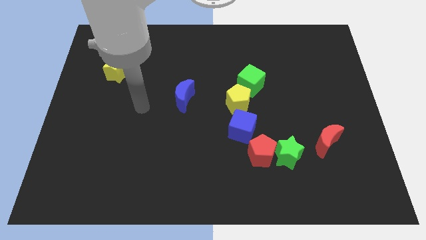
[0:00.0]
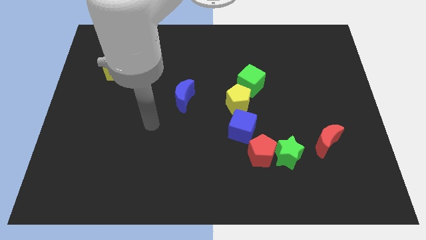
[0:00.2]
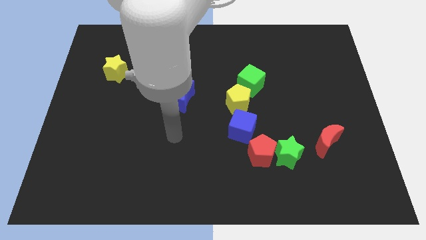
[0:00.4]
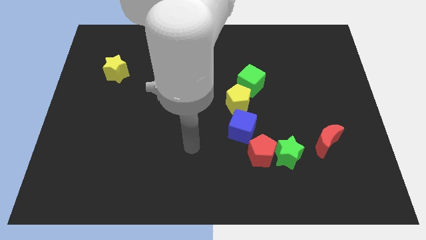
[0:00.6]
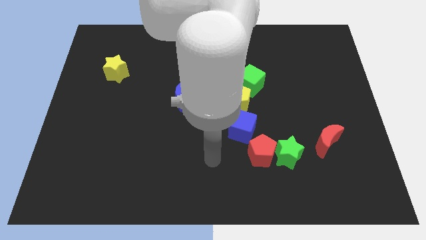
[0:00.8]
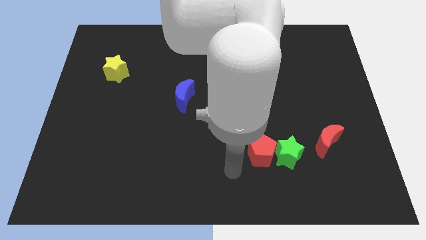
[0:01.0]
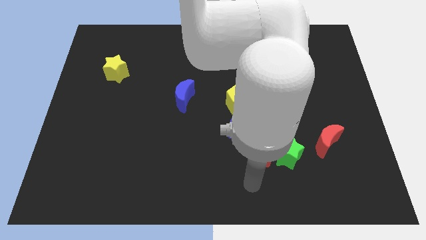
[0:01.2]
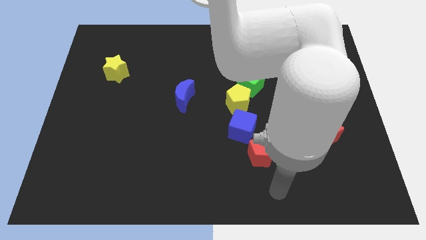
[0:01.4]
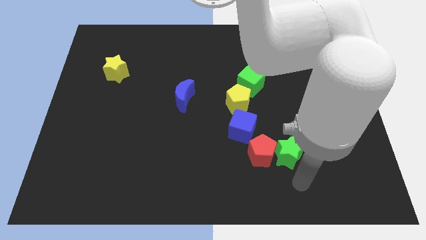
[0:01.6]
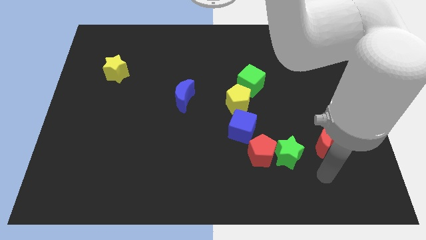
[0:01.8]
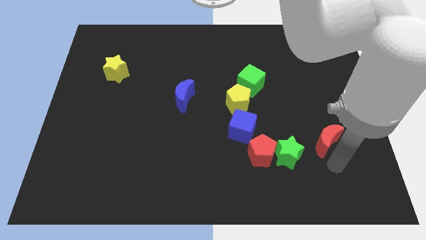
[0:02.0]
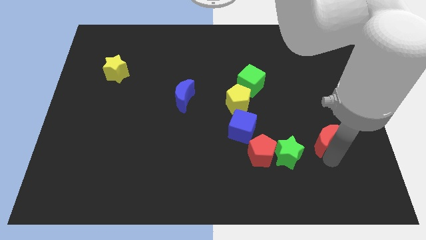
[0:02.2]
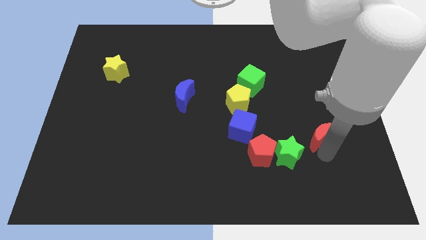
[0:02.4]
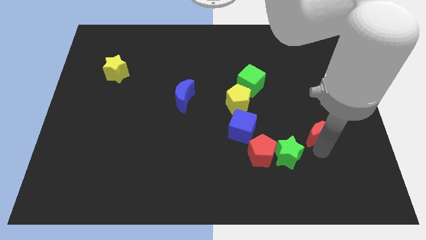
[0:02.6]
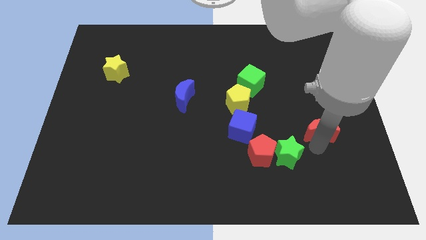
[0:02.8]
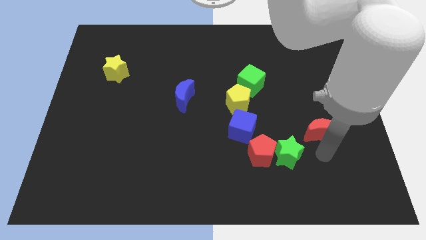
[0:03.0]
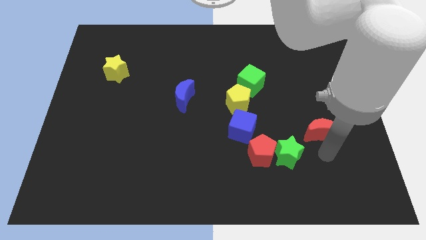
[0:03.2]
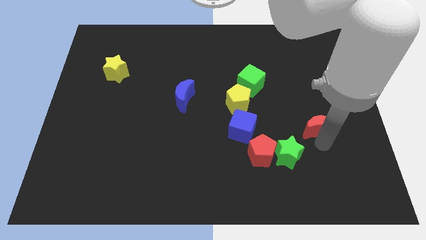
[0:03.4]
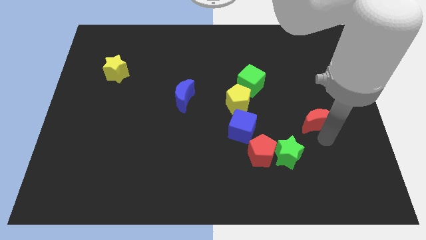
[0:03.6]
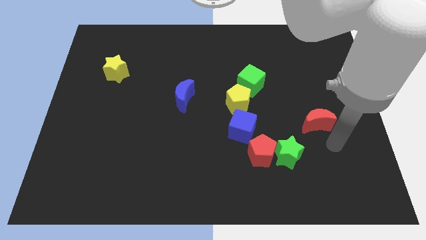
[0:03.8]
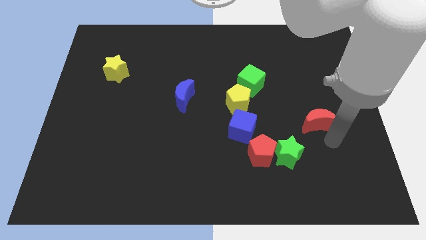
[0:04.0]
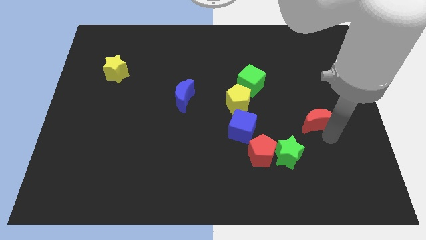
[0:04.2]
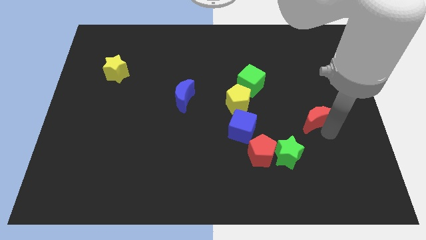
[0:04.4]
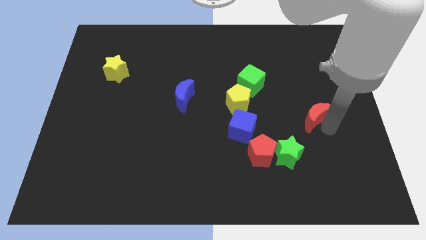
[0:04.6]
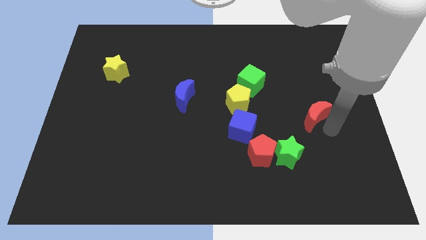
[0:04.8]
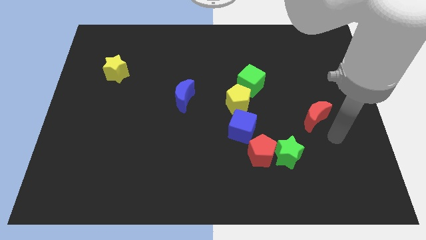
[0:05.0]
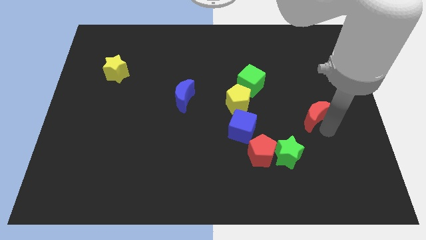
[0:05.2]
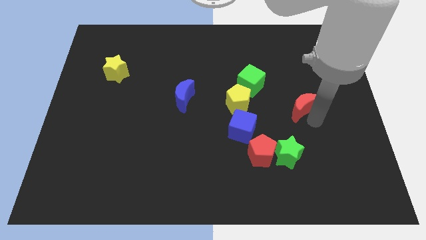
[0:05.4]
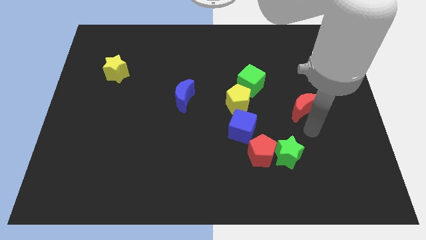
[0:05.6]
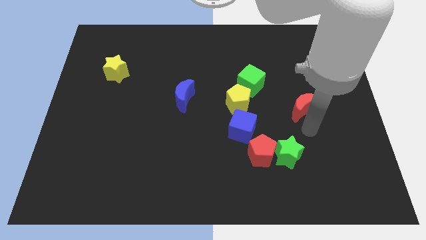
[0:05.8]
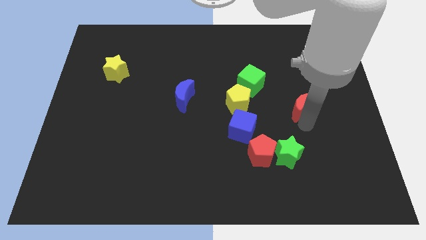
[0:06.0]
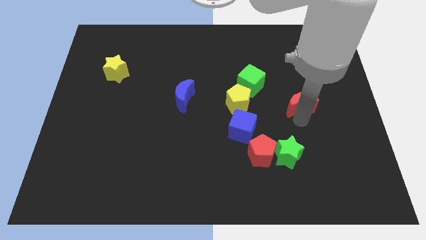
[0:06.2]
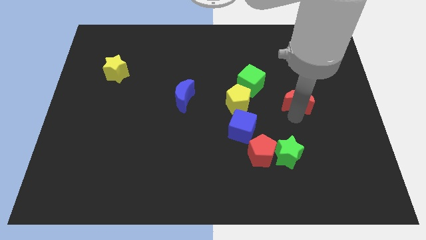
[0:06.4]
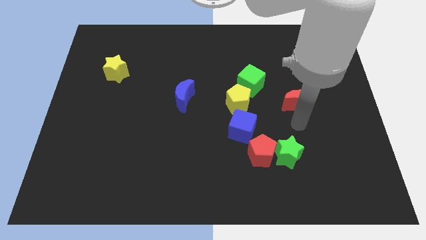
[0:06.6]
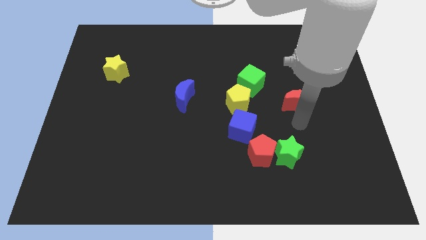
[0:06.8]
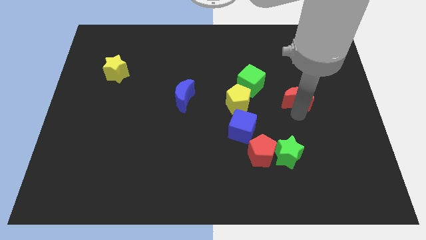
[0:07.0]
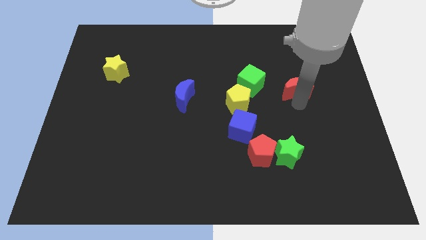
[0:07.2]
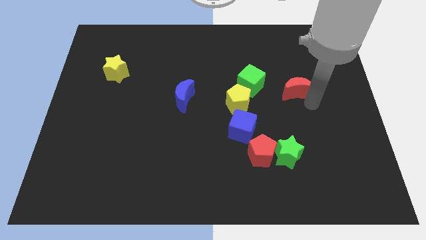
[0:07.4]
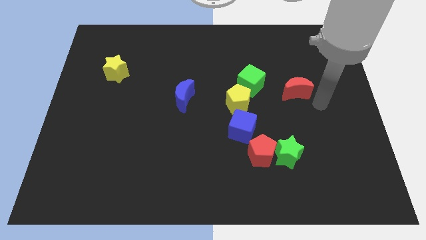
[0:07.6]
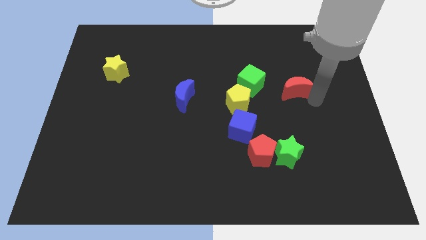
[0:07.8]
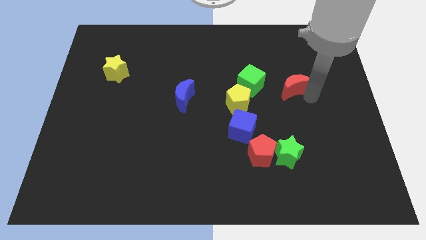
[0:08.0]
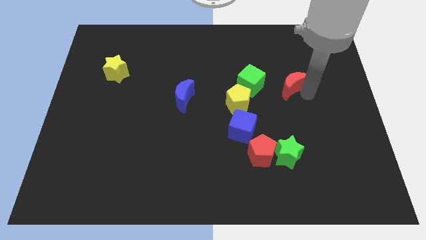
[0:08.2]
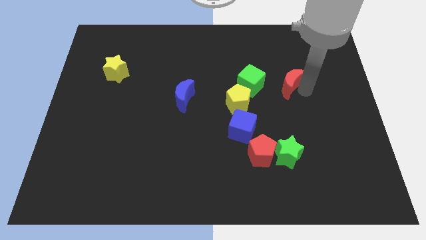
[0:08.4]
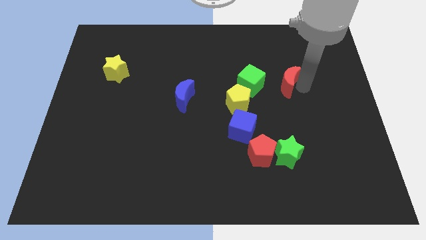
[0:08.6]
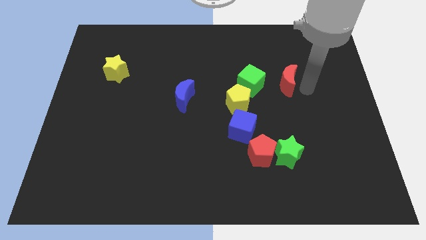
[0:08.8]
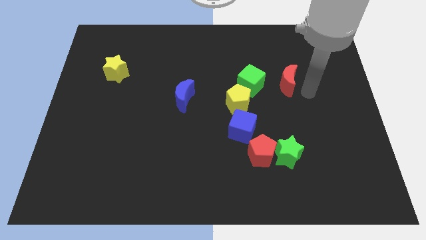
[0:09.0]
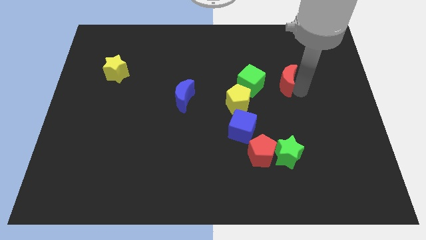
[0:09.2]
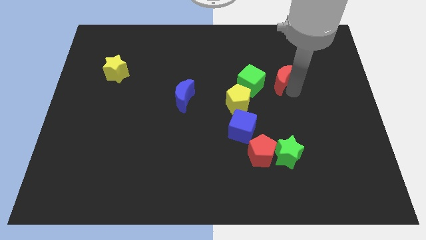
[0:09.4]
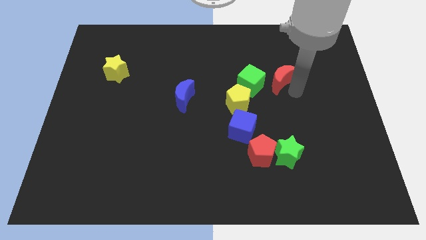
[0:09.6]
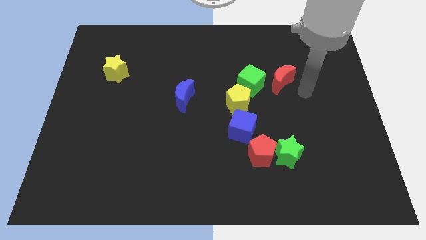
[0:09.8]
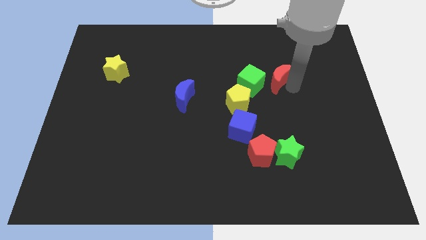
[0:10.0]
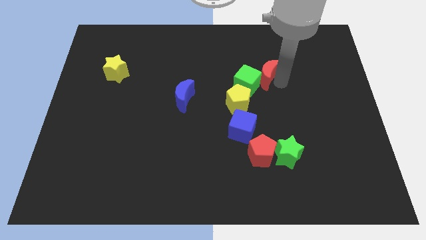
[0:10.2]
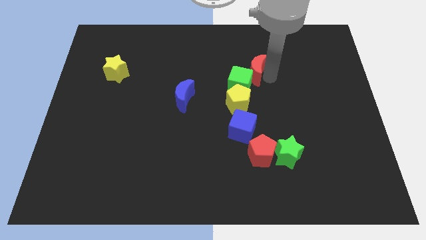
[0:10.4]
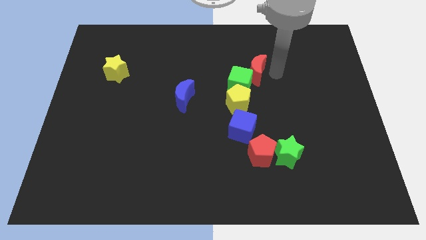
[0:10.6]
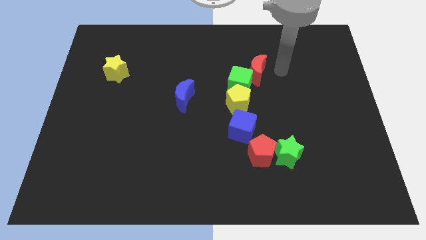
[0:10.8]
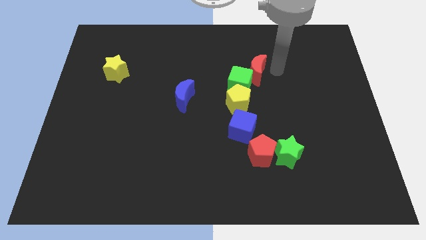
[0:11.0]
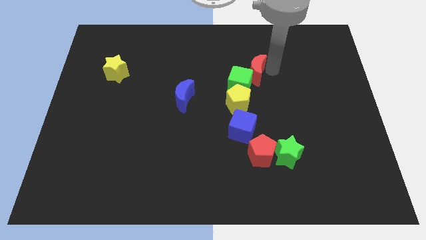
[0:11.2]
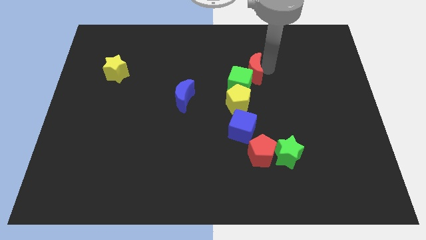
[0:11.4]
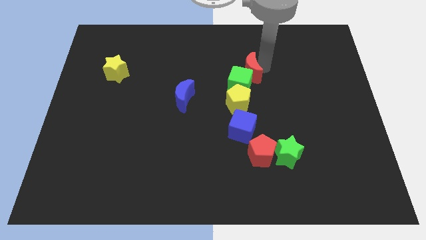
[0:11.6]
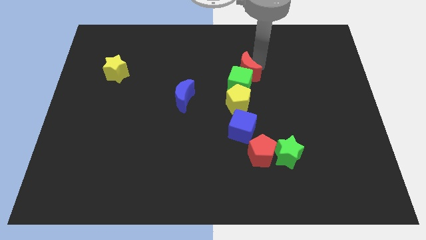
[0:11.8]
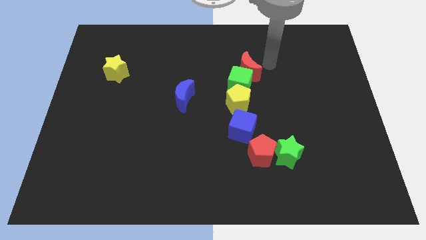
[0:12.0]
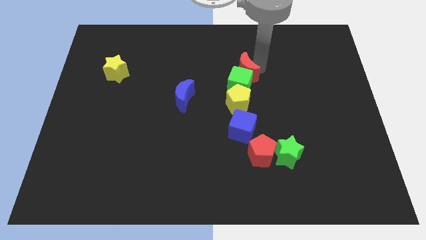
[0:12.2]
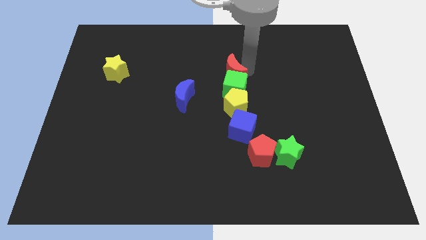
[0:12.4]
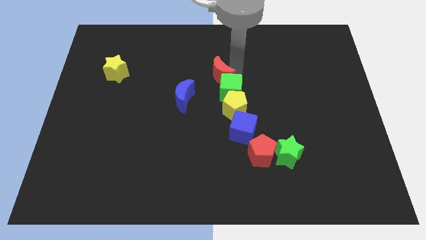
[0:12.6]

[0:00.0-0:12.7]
move the red moon to the top right side of the blue moon
